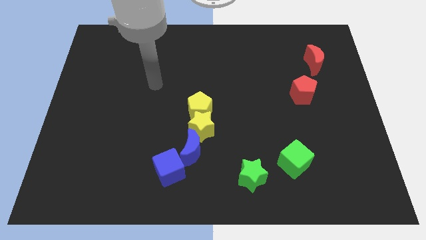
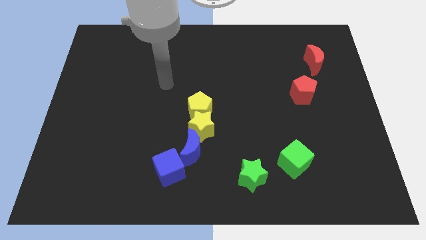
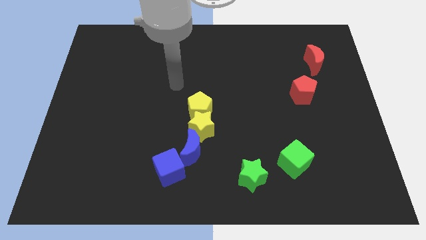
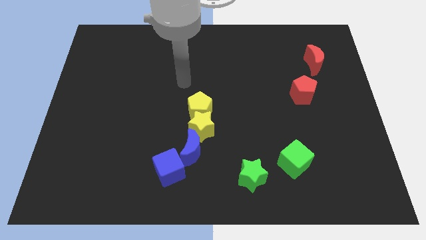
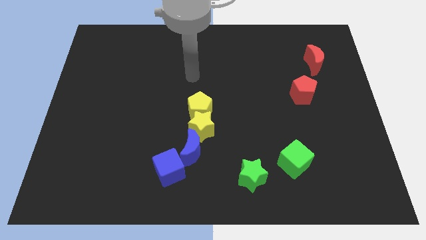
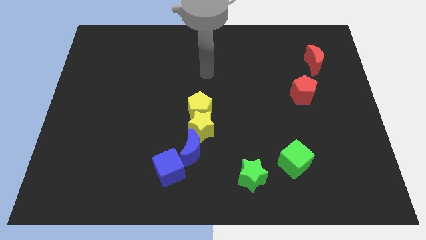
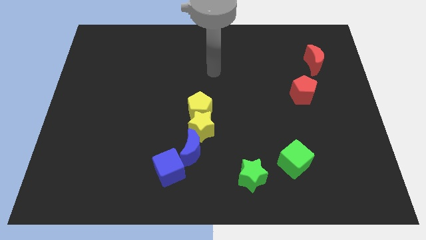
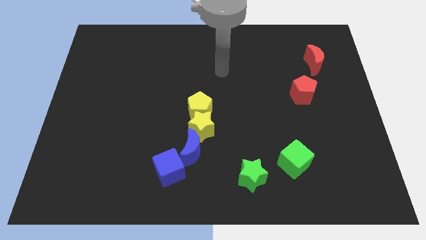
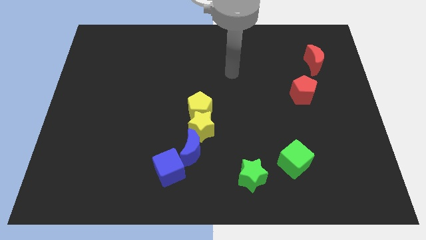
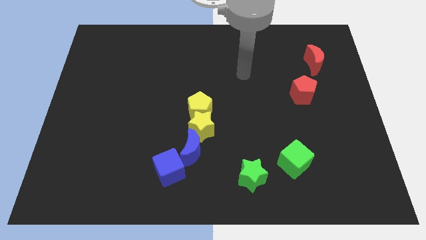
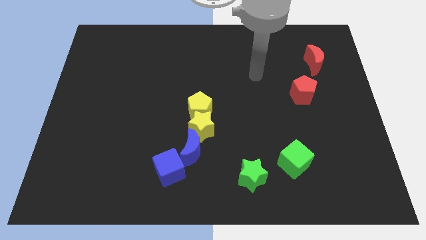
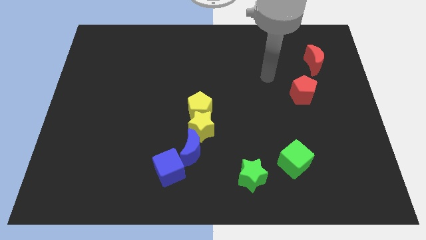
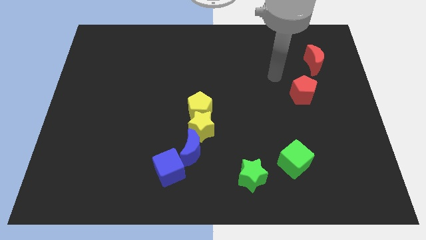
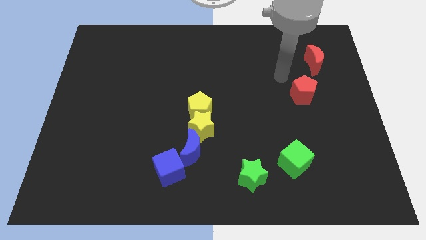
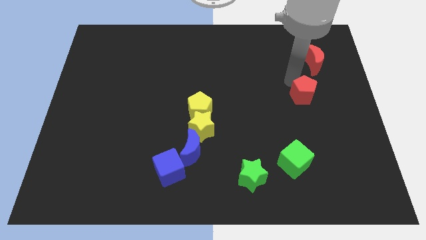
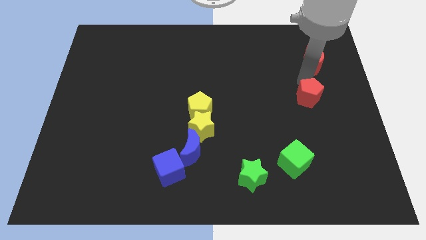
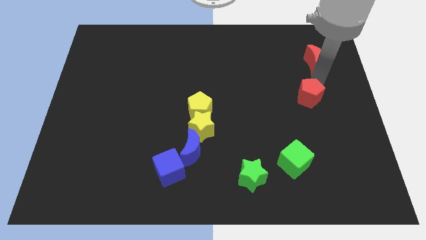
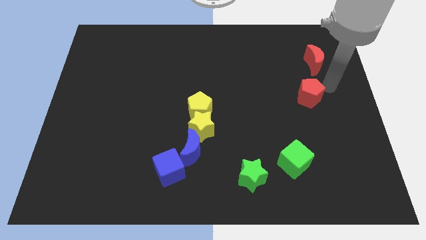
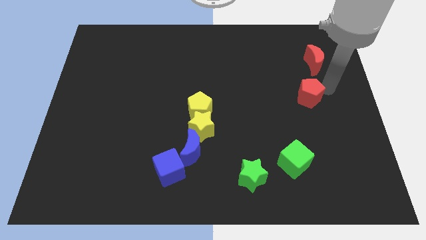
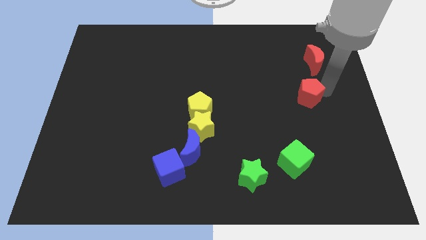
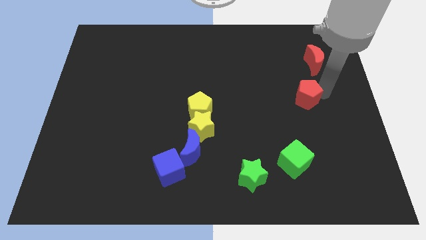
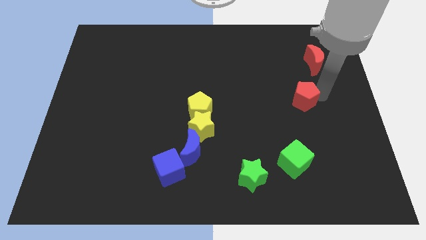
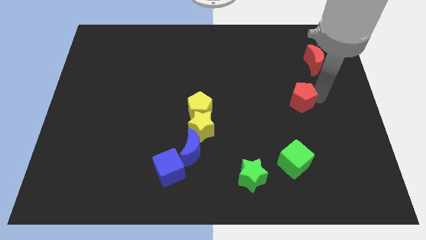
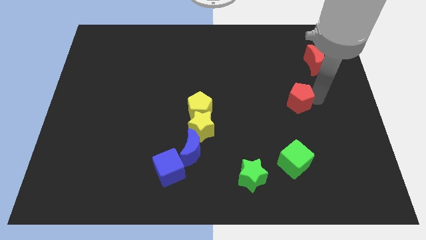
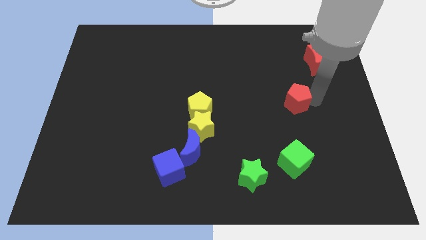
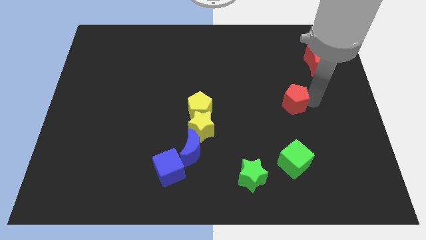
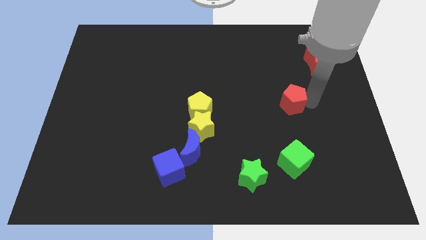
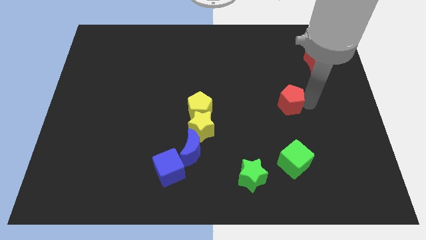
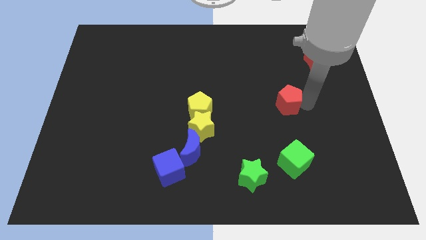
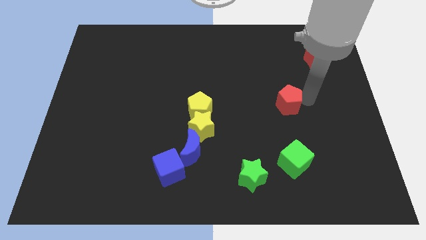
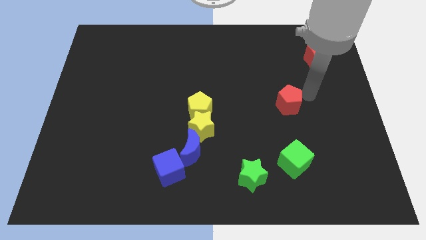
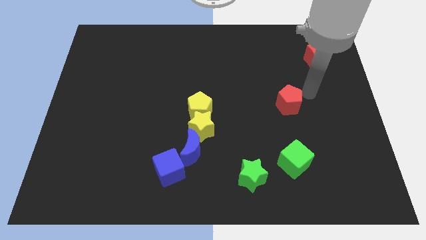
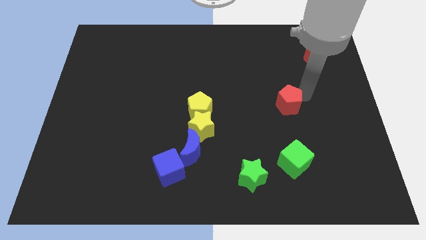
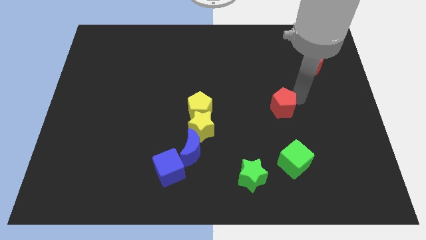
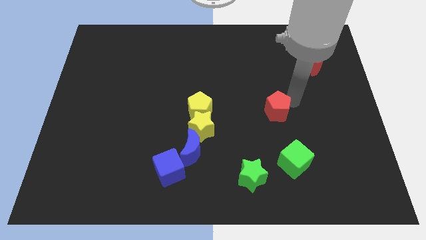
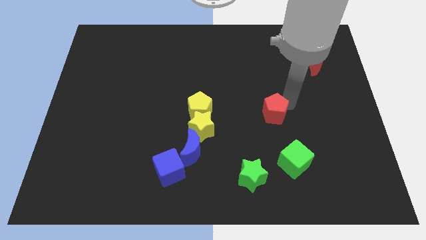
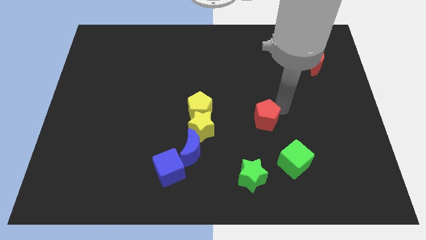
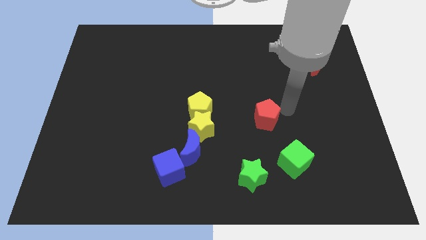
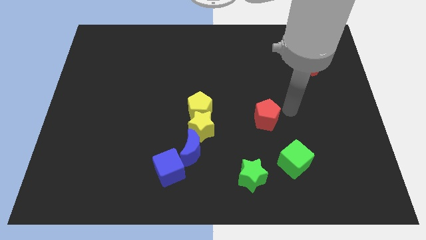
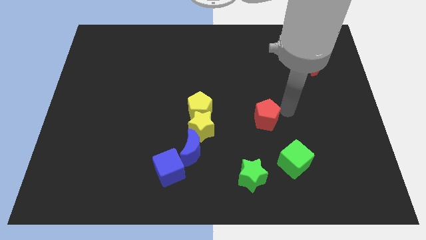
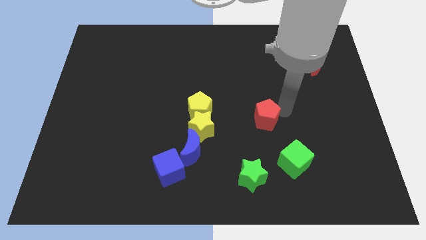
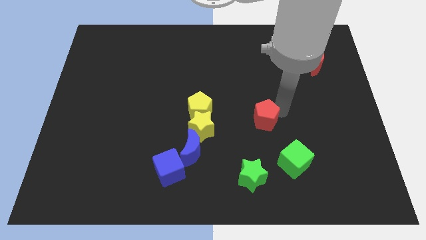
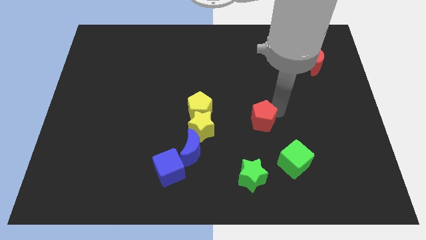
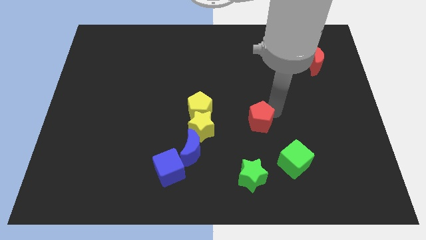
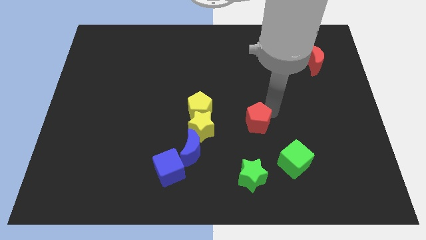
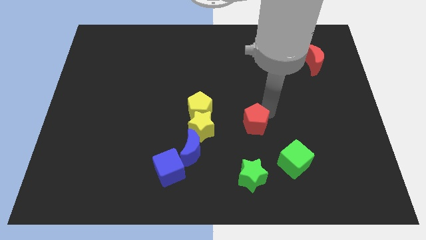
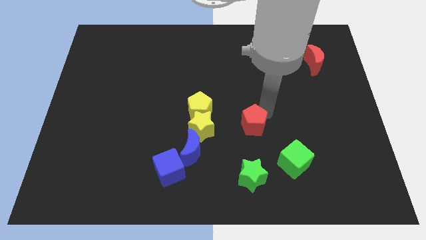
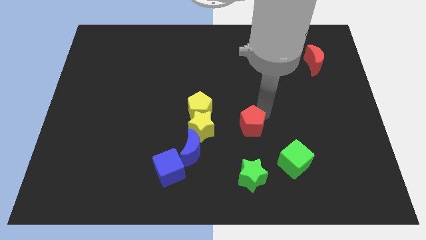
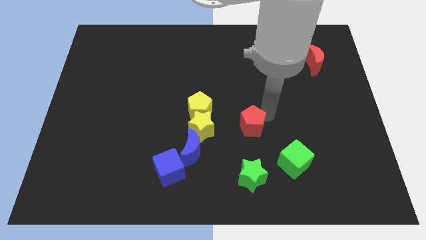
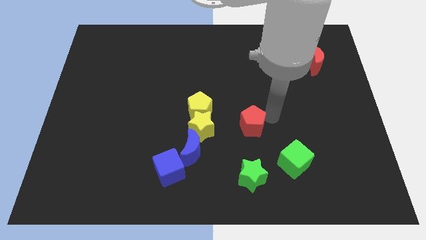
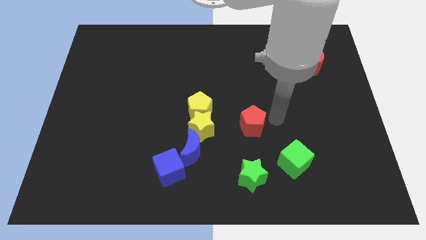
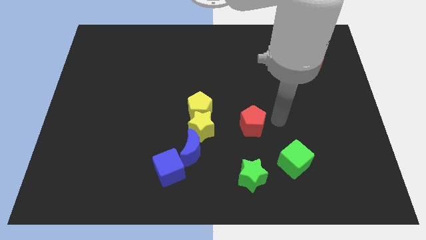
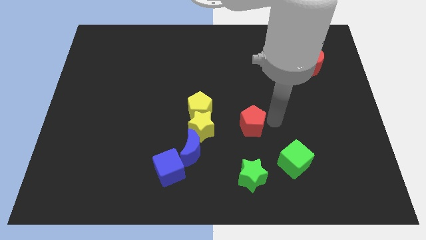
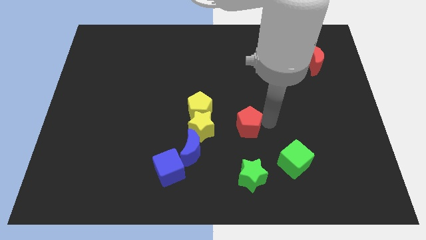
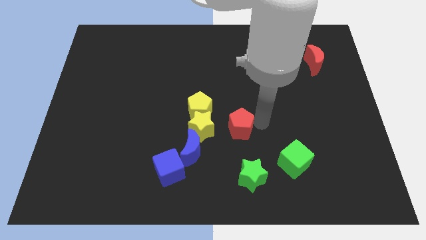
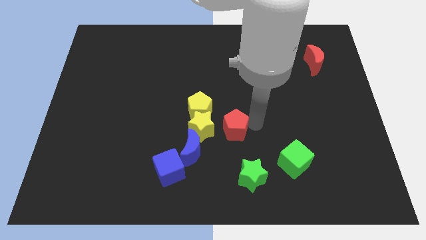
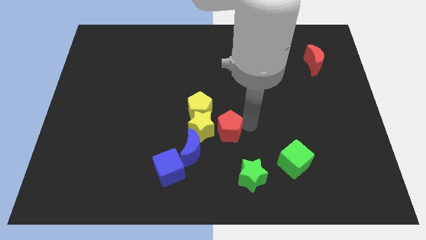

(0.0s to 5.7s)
push the red pentagon towards the yellow star

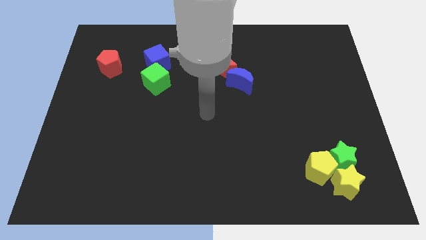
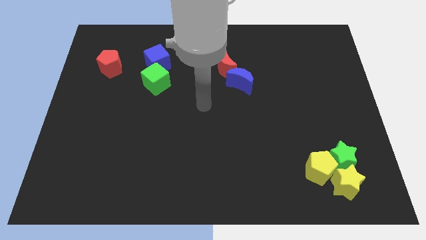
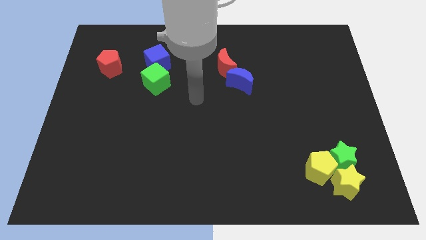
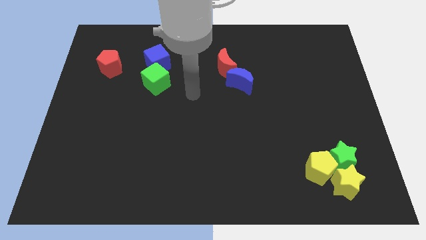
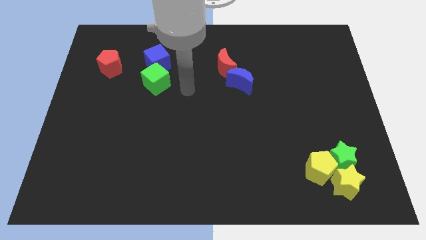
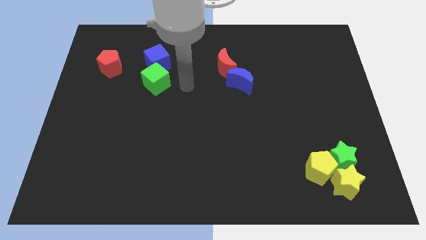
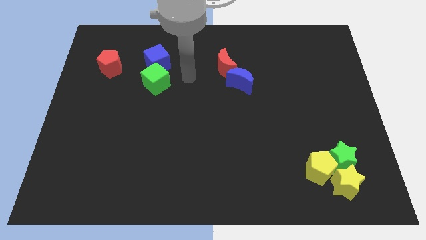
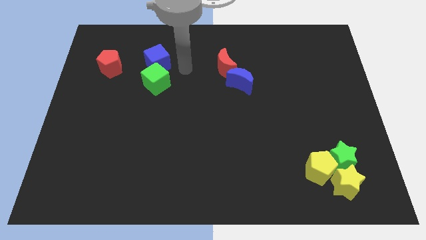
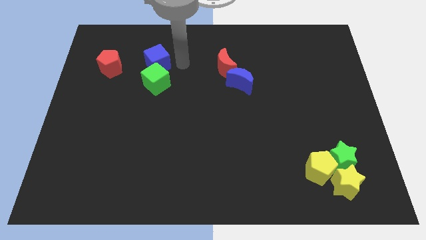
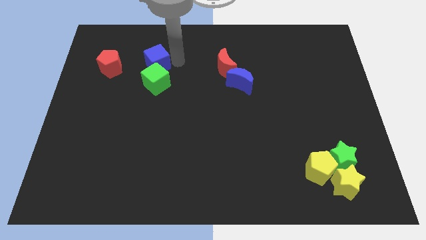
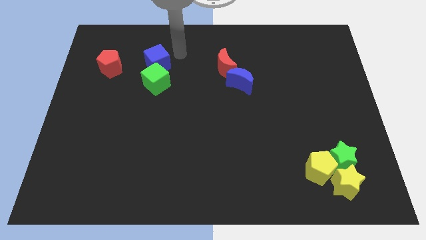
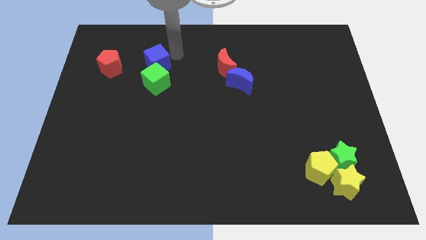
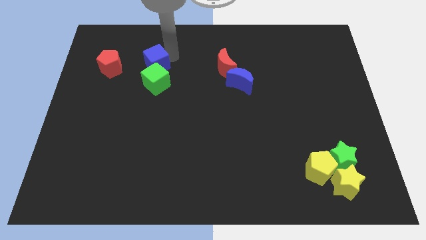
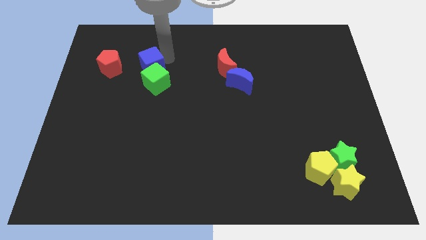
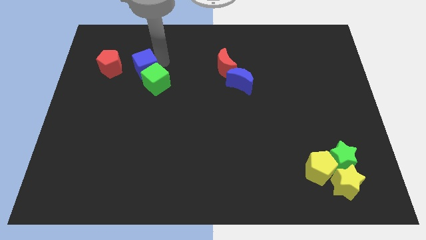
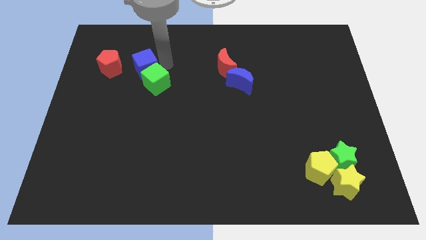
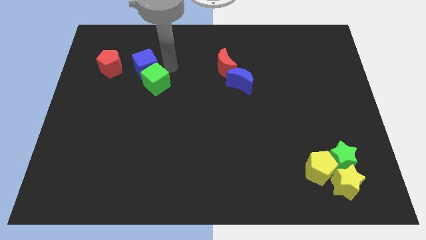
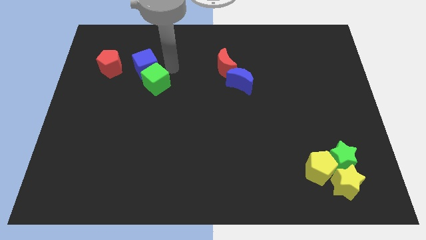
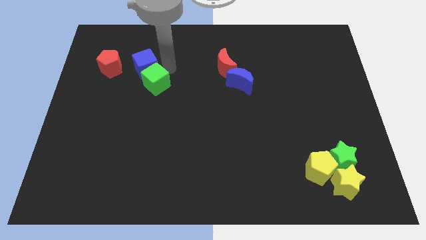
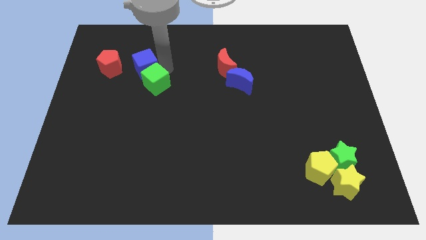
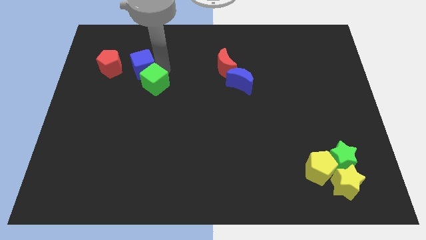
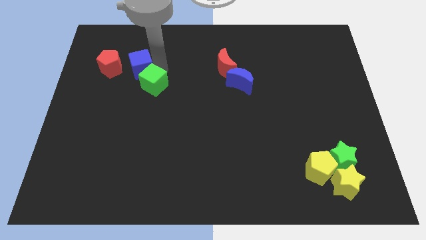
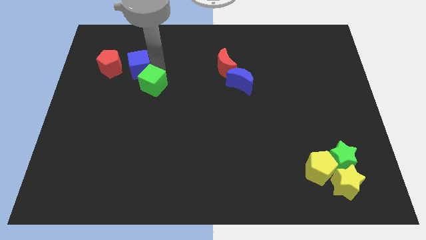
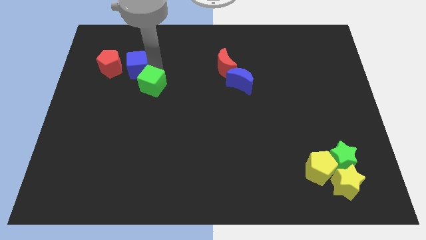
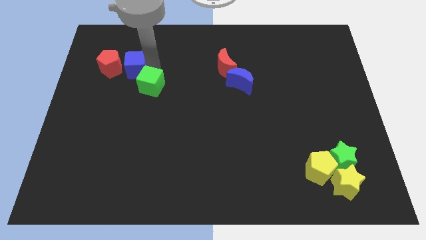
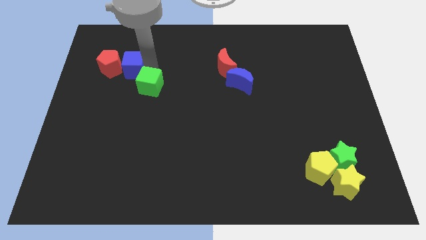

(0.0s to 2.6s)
put the blue cube next to the red pentagon
